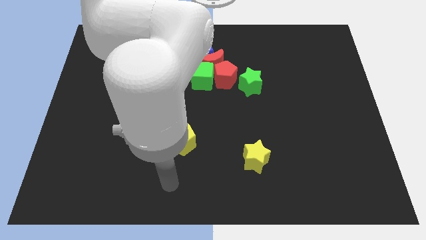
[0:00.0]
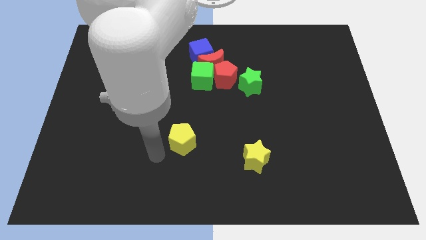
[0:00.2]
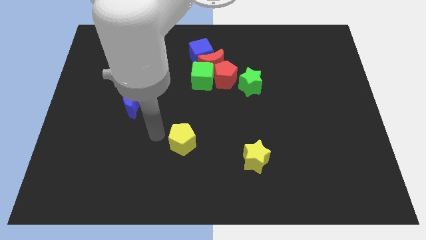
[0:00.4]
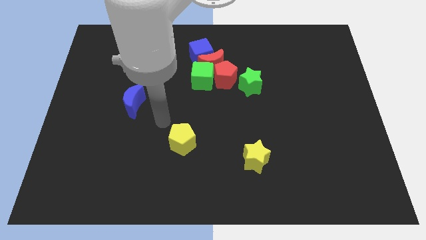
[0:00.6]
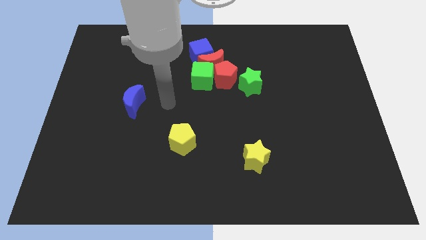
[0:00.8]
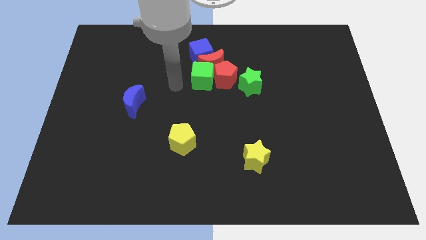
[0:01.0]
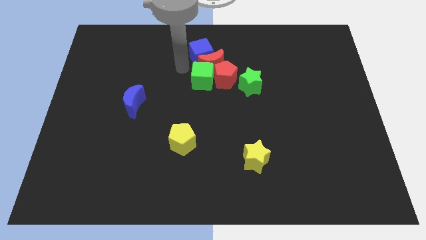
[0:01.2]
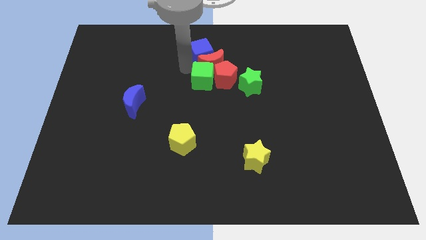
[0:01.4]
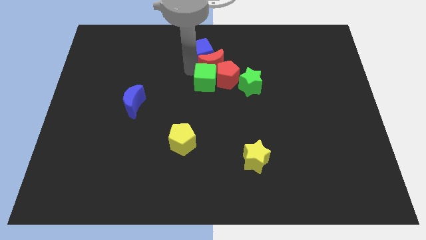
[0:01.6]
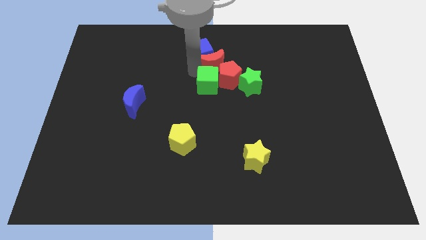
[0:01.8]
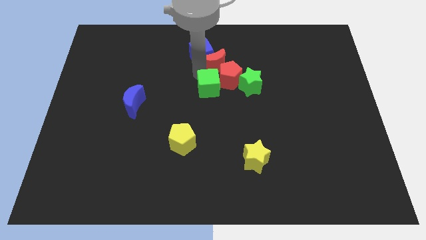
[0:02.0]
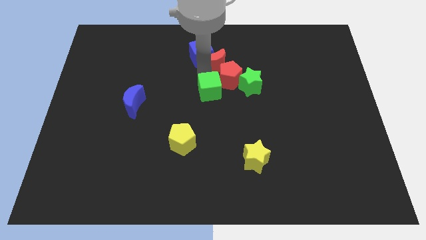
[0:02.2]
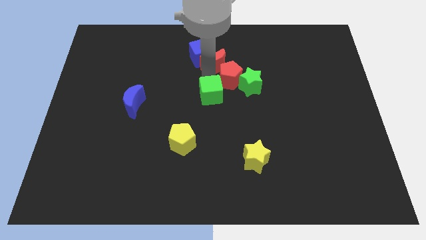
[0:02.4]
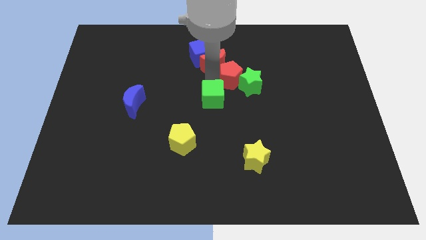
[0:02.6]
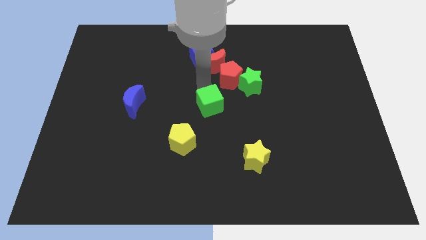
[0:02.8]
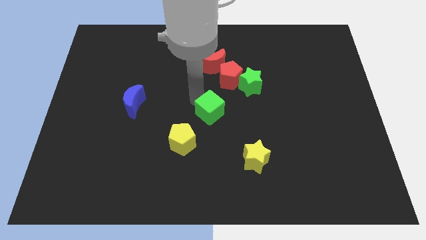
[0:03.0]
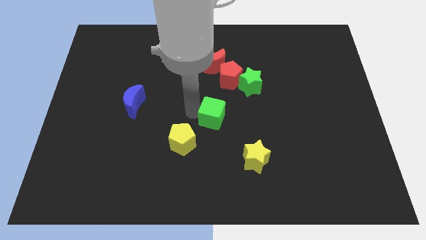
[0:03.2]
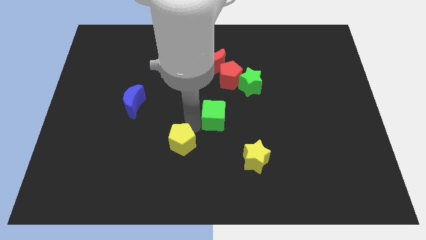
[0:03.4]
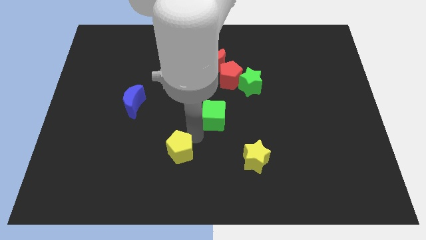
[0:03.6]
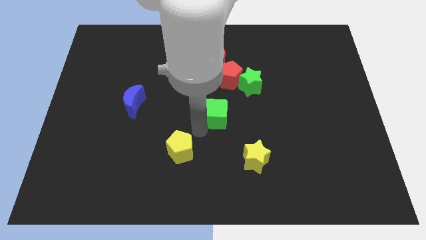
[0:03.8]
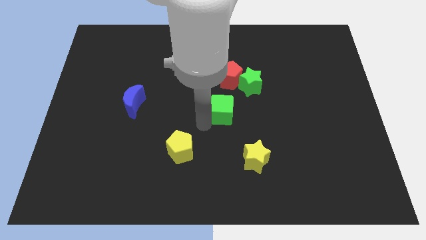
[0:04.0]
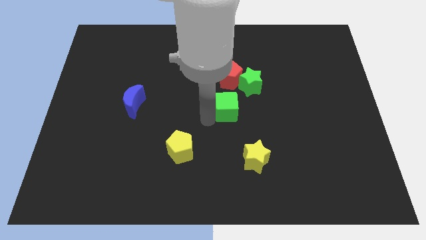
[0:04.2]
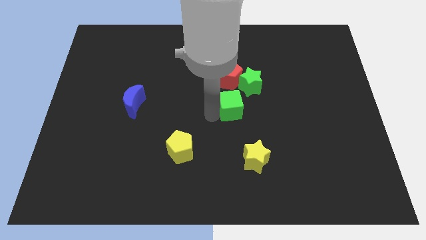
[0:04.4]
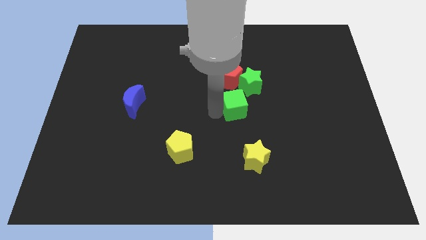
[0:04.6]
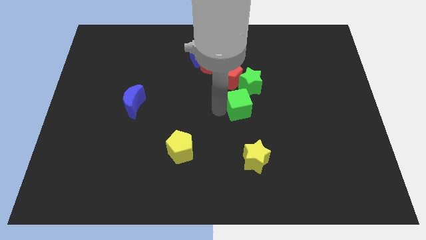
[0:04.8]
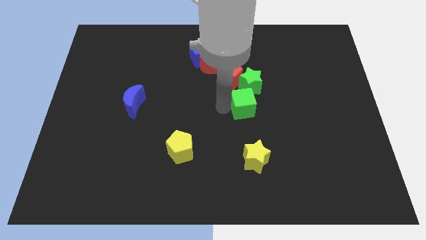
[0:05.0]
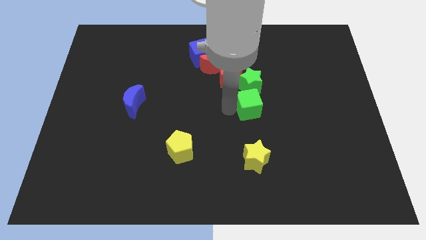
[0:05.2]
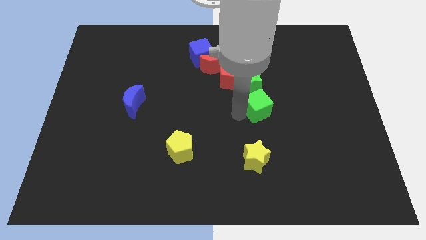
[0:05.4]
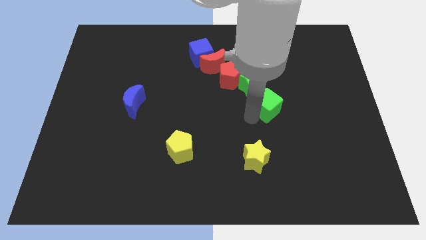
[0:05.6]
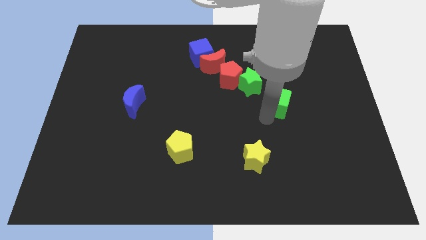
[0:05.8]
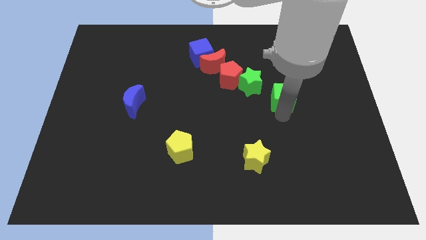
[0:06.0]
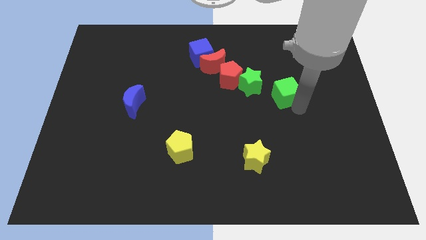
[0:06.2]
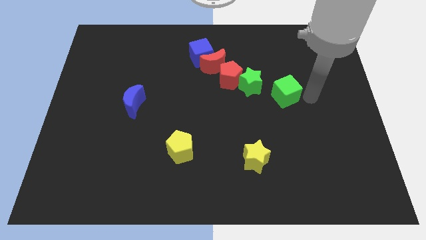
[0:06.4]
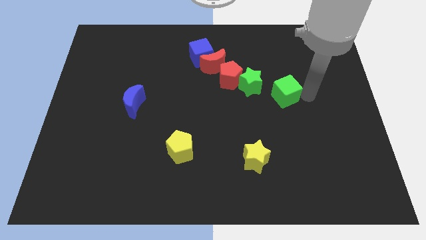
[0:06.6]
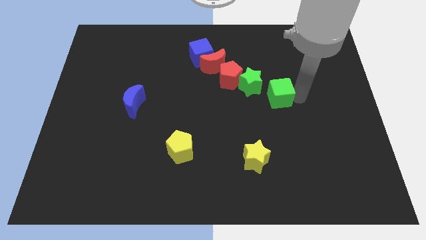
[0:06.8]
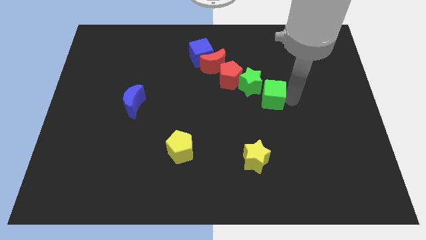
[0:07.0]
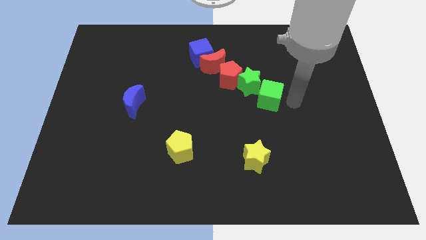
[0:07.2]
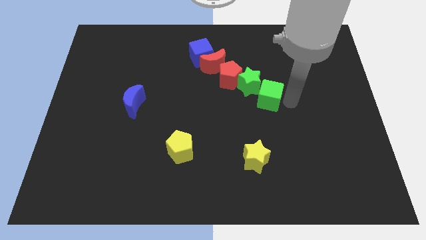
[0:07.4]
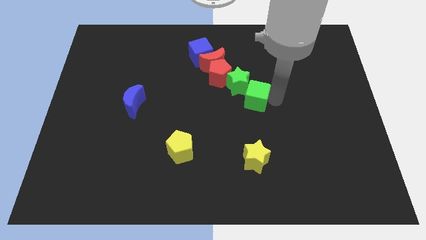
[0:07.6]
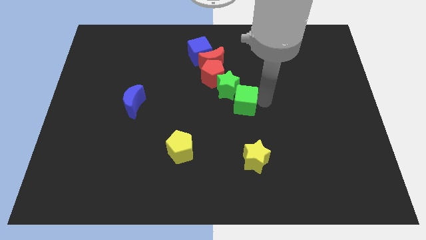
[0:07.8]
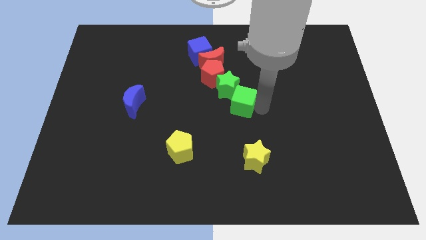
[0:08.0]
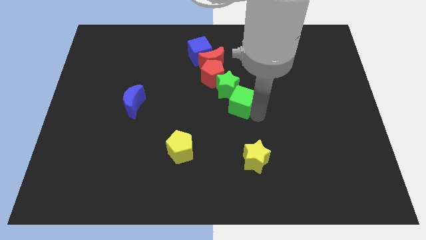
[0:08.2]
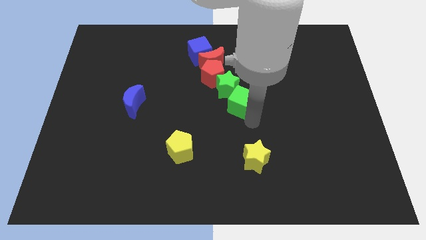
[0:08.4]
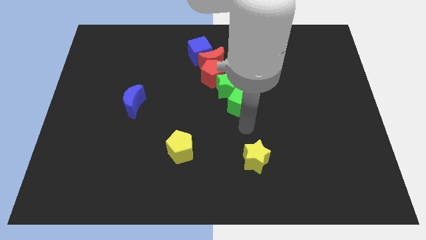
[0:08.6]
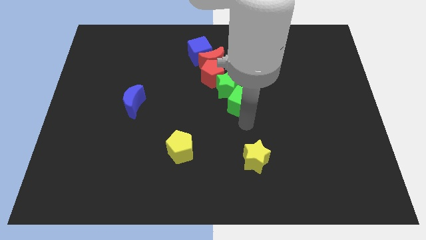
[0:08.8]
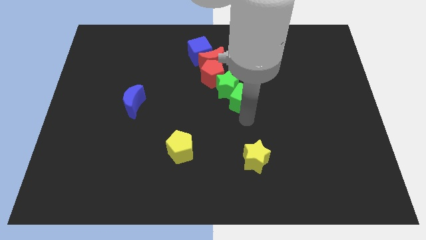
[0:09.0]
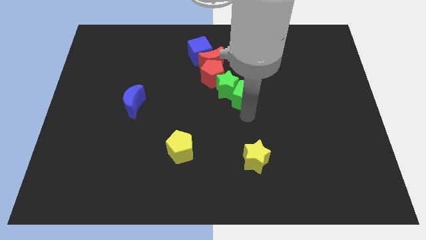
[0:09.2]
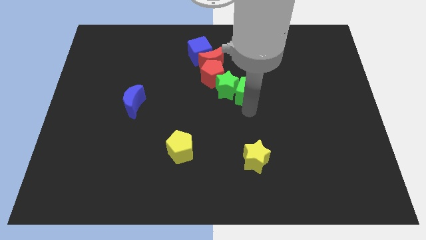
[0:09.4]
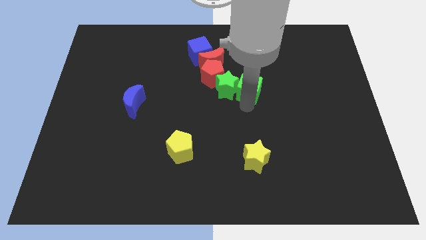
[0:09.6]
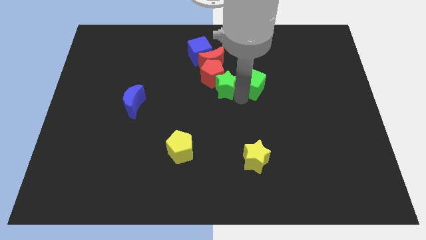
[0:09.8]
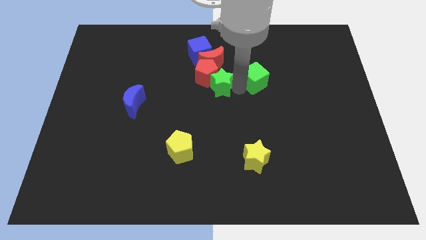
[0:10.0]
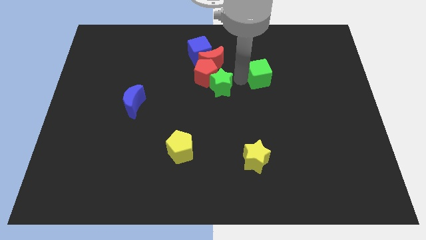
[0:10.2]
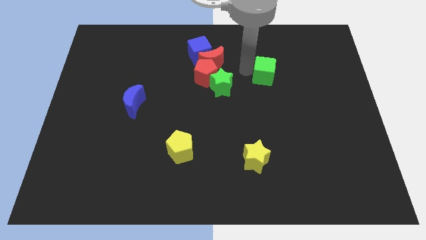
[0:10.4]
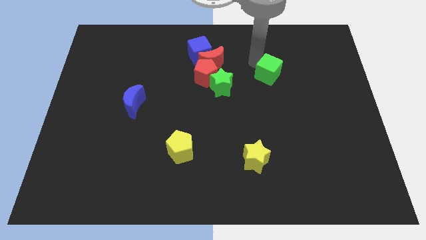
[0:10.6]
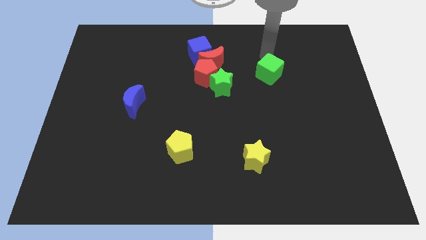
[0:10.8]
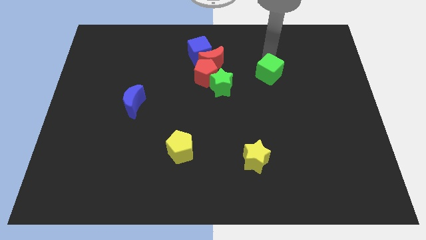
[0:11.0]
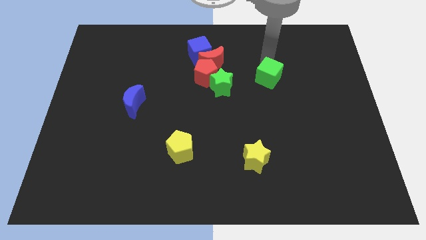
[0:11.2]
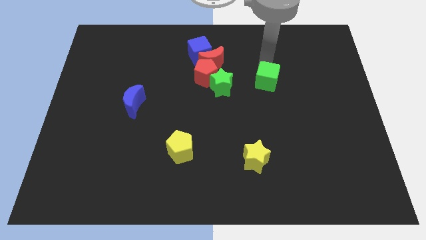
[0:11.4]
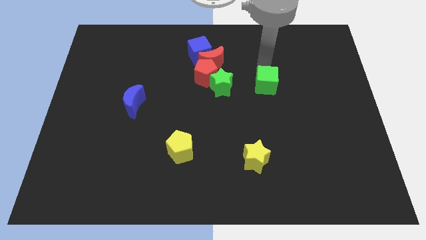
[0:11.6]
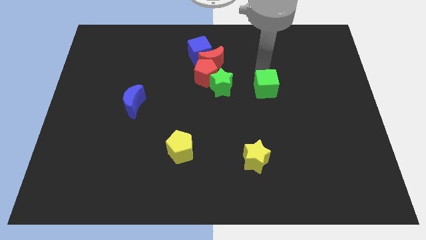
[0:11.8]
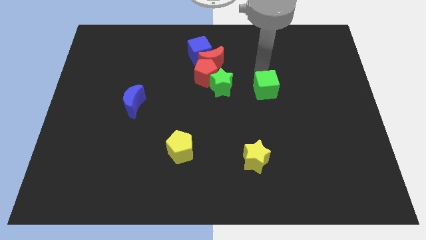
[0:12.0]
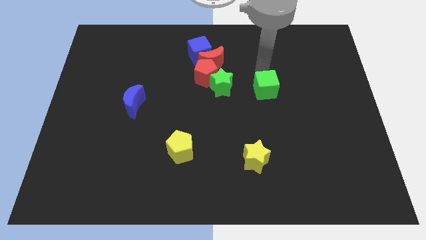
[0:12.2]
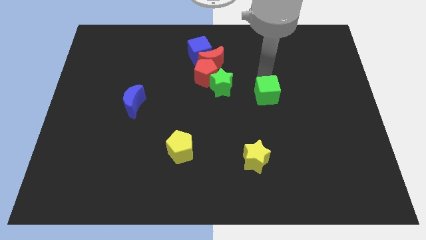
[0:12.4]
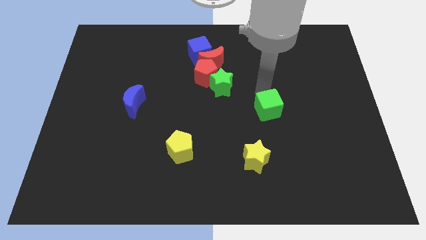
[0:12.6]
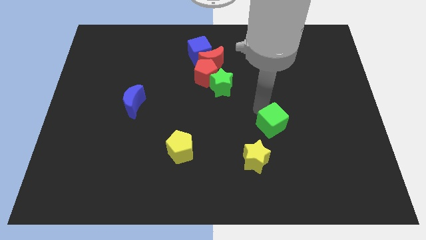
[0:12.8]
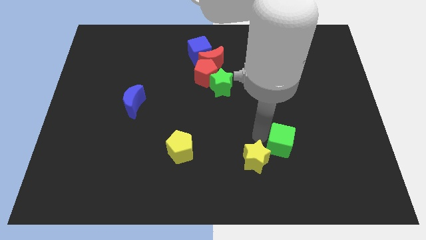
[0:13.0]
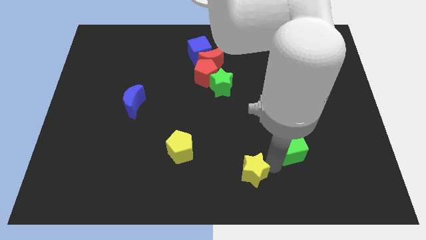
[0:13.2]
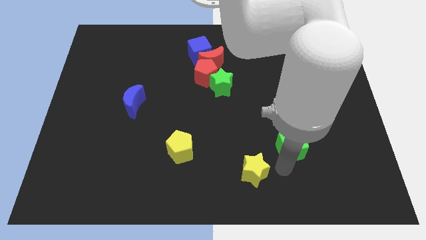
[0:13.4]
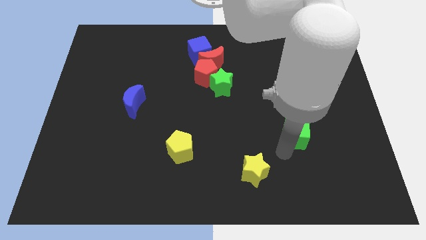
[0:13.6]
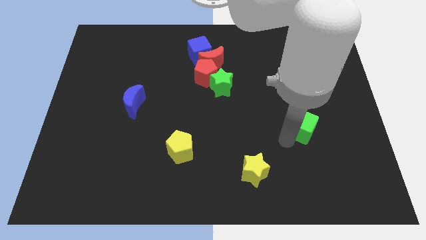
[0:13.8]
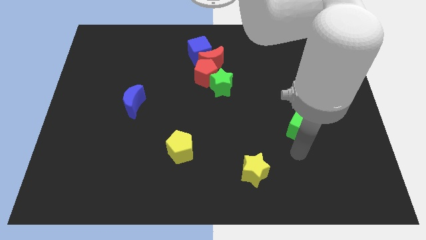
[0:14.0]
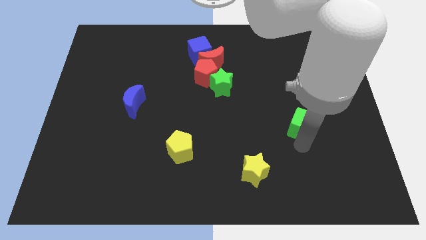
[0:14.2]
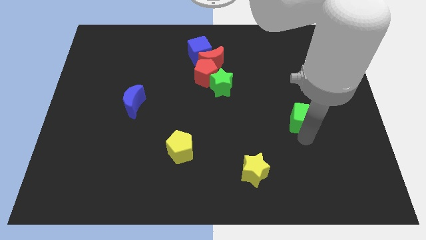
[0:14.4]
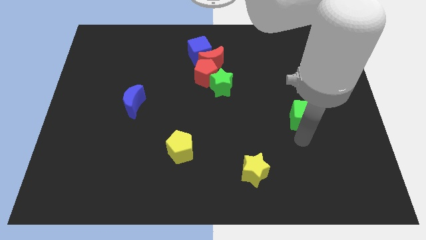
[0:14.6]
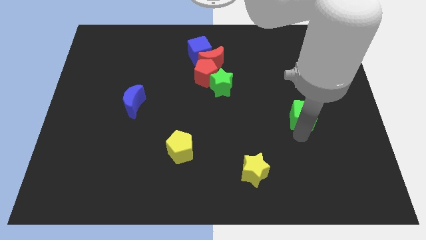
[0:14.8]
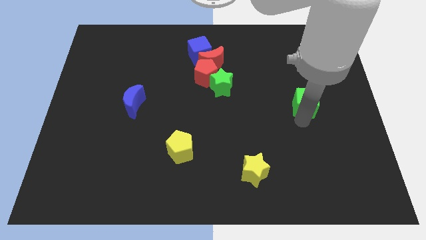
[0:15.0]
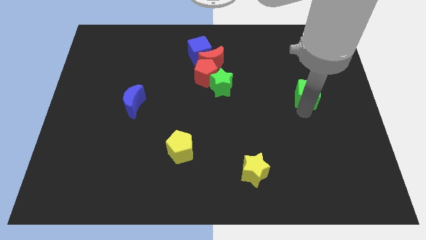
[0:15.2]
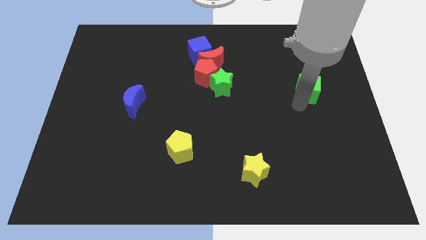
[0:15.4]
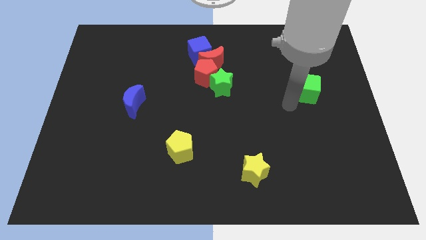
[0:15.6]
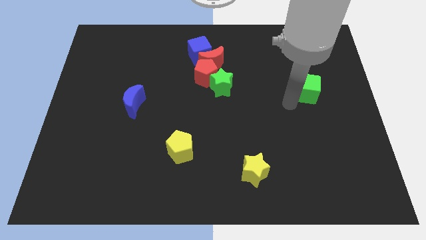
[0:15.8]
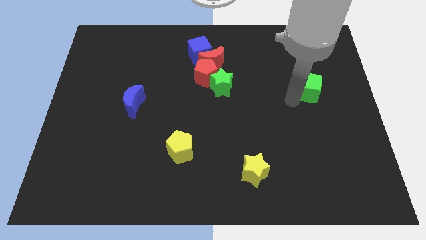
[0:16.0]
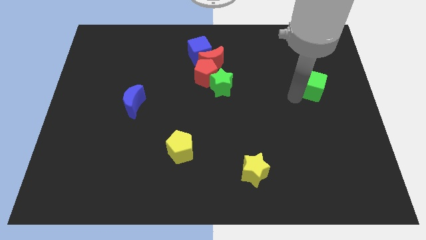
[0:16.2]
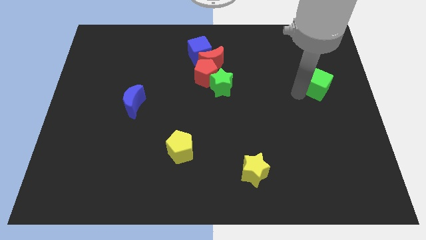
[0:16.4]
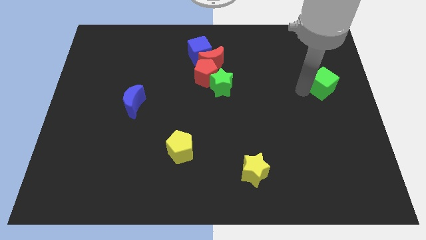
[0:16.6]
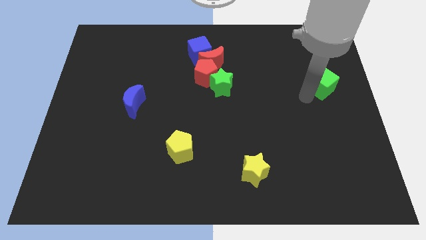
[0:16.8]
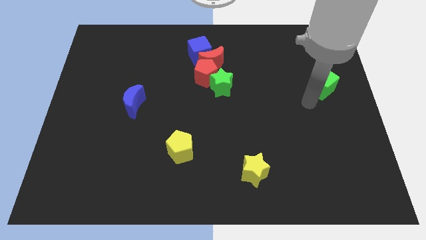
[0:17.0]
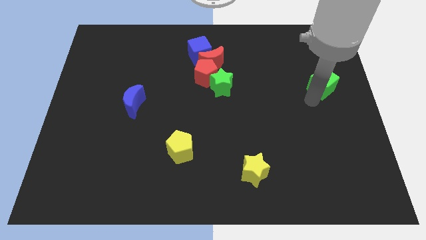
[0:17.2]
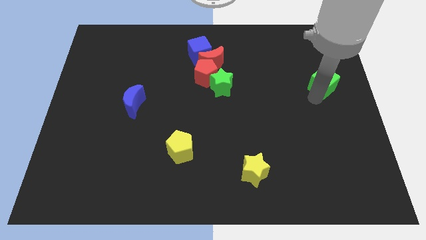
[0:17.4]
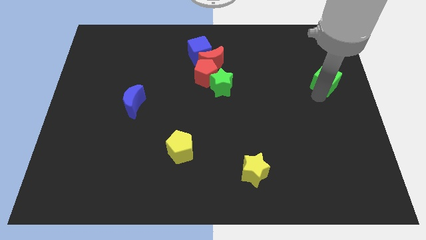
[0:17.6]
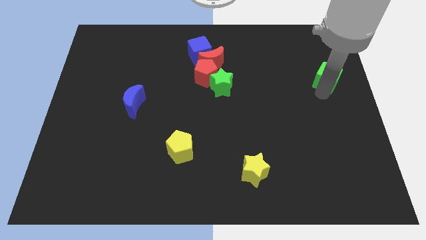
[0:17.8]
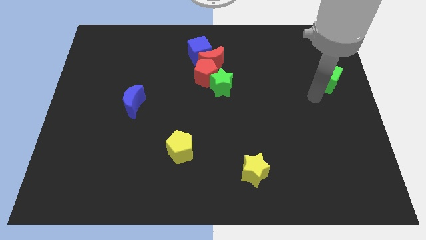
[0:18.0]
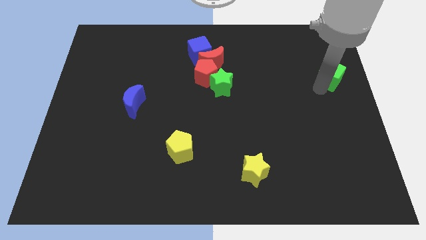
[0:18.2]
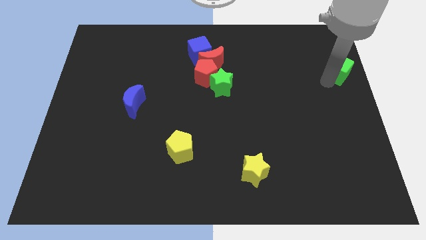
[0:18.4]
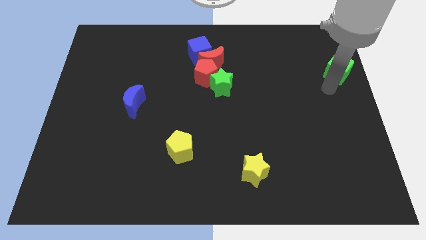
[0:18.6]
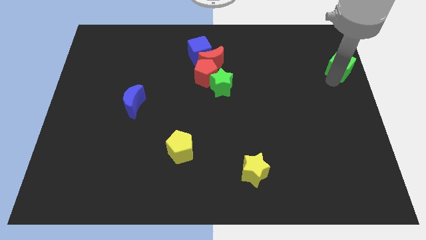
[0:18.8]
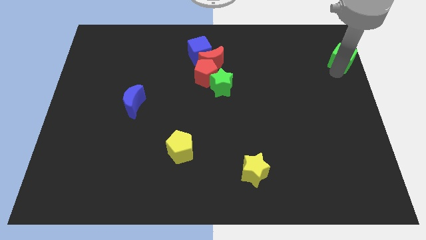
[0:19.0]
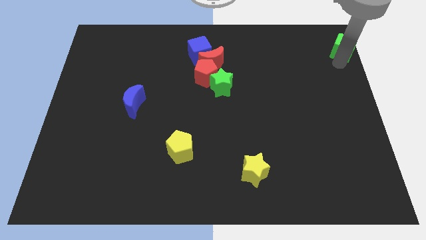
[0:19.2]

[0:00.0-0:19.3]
push the green cube to the top right corner
